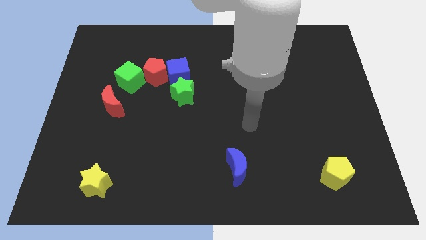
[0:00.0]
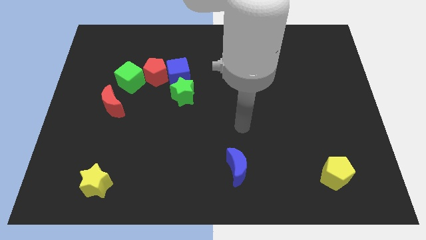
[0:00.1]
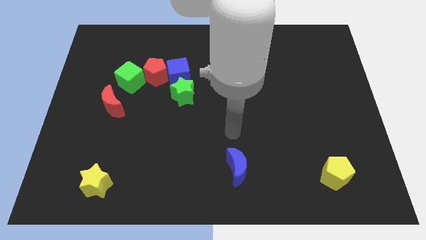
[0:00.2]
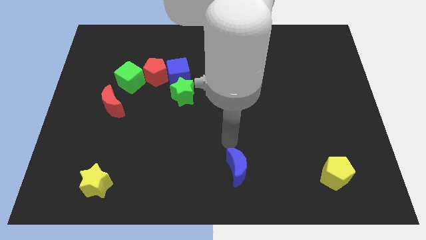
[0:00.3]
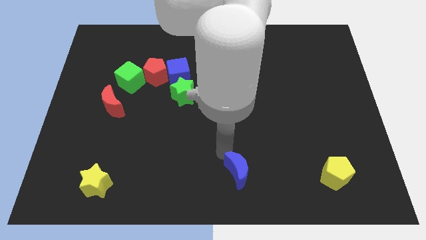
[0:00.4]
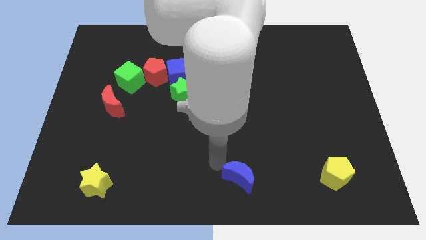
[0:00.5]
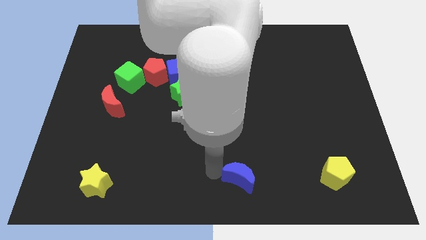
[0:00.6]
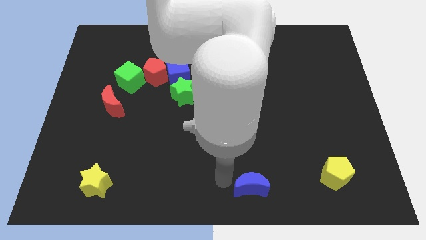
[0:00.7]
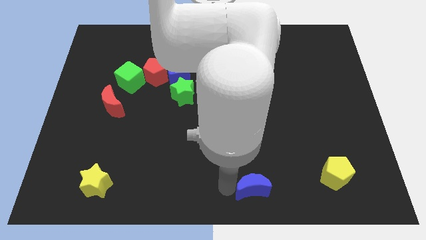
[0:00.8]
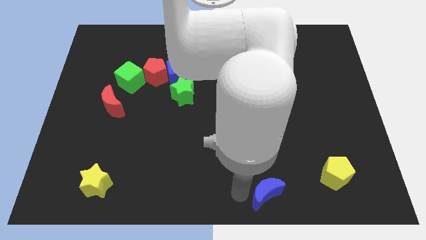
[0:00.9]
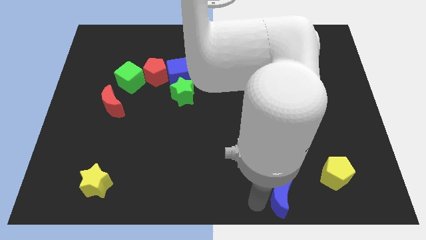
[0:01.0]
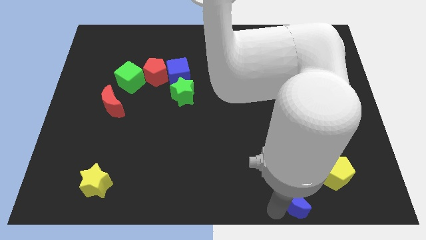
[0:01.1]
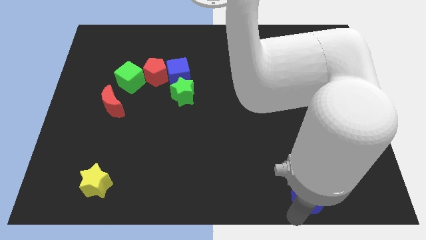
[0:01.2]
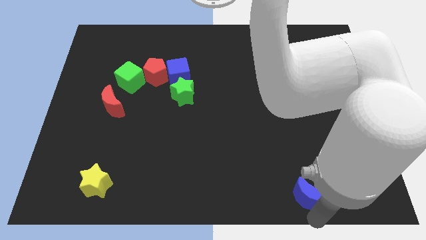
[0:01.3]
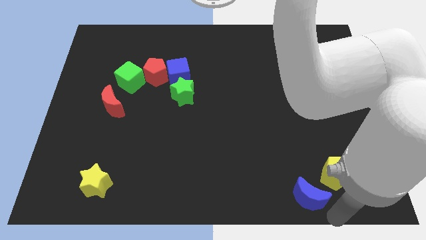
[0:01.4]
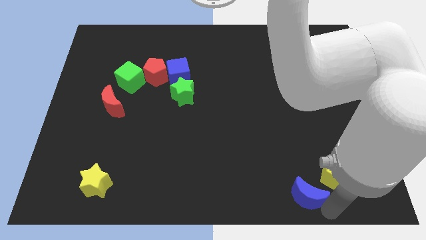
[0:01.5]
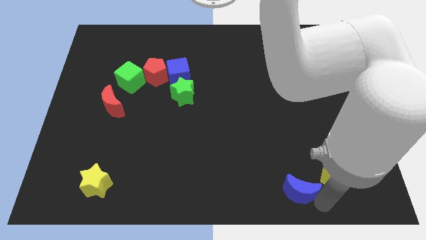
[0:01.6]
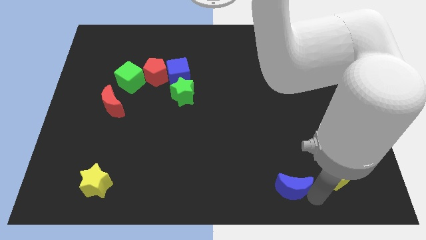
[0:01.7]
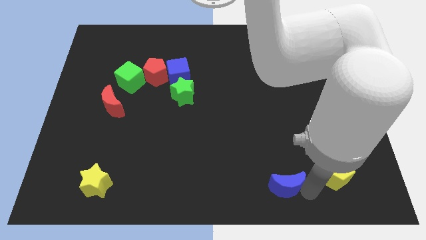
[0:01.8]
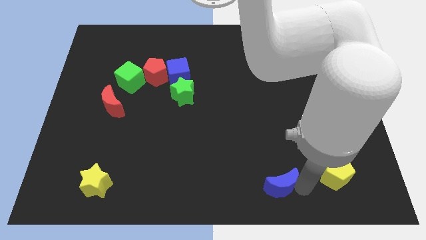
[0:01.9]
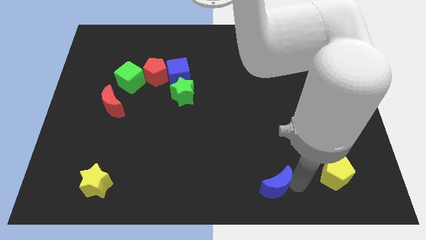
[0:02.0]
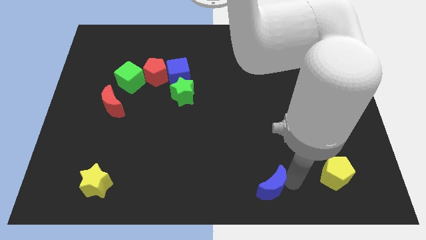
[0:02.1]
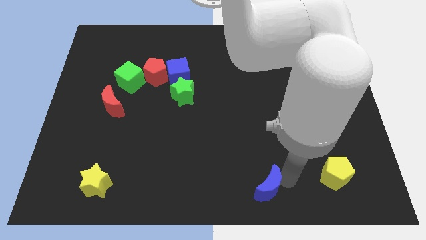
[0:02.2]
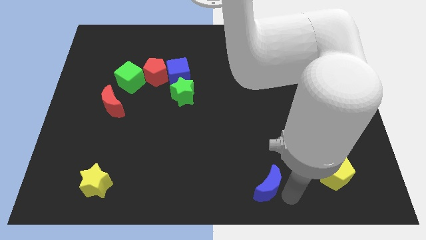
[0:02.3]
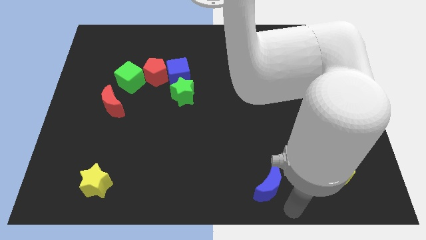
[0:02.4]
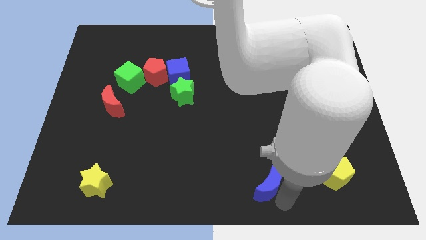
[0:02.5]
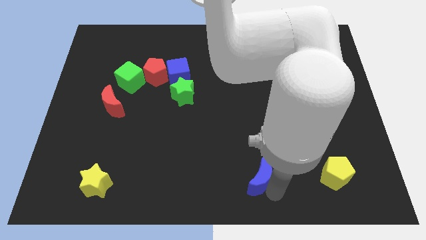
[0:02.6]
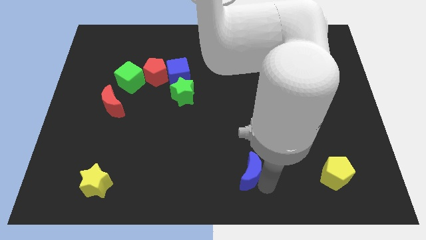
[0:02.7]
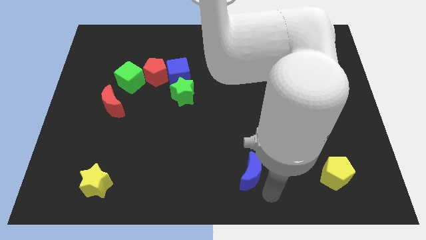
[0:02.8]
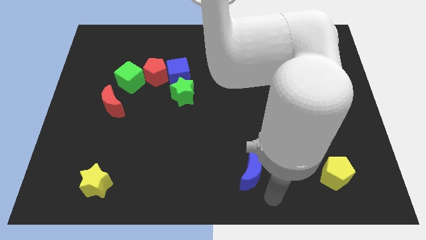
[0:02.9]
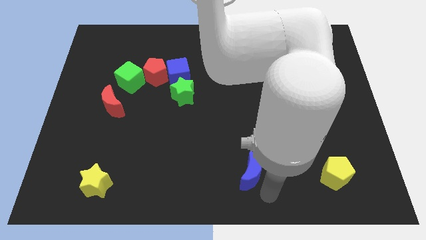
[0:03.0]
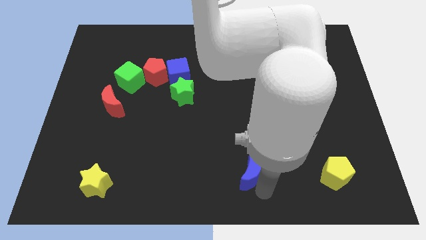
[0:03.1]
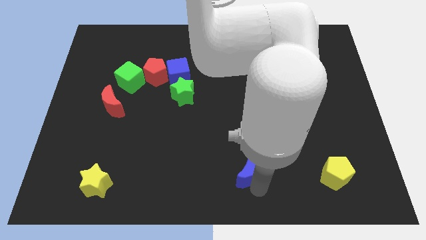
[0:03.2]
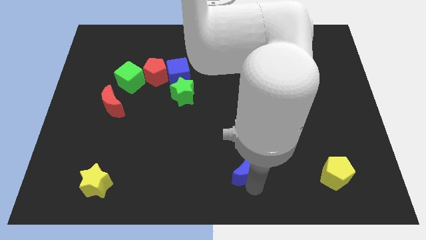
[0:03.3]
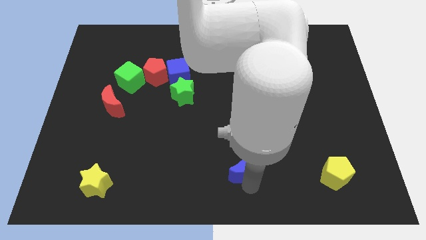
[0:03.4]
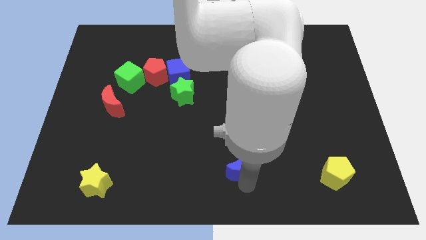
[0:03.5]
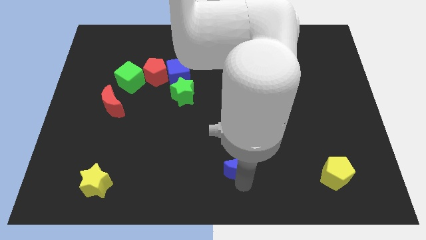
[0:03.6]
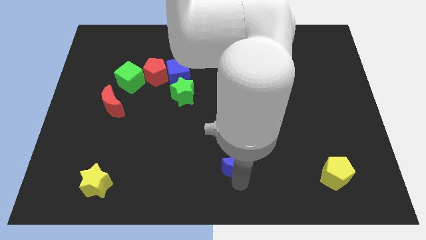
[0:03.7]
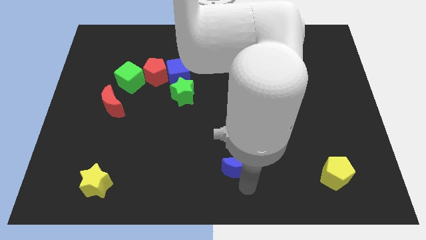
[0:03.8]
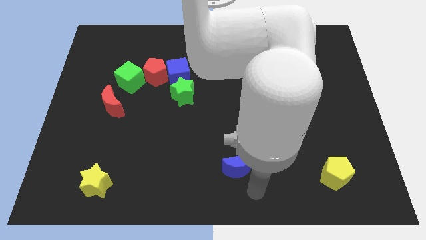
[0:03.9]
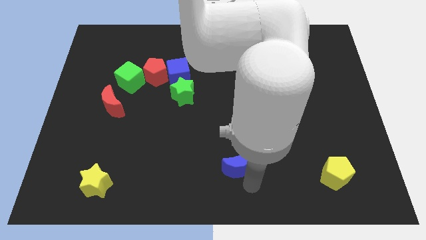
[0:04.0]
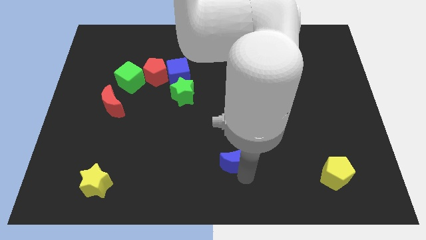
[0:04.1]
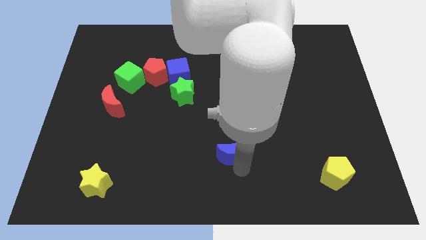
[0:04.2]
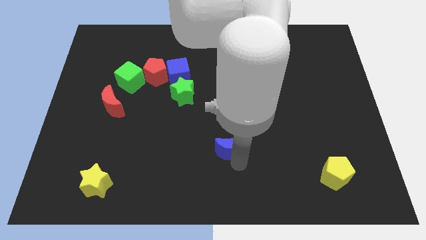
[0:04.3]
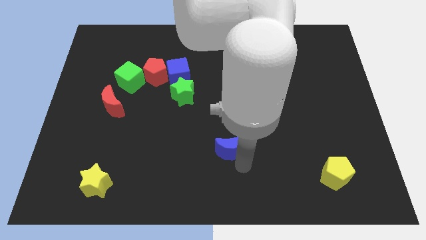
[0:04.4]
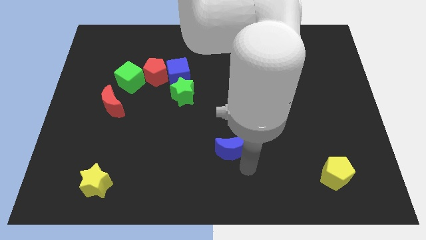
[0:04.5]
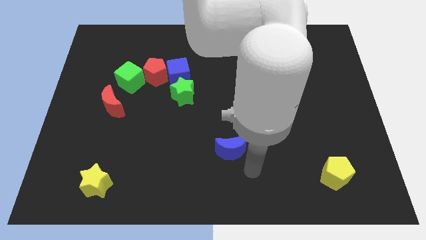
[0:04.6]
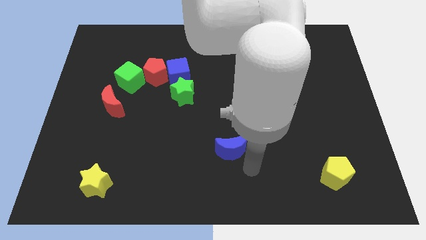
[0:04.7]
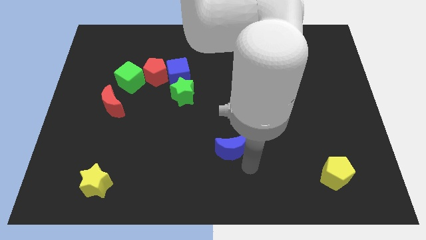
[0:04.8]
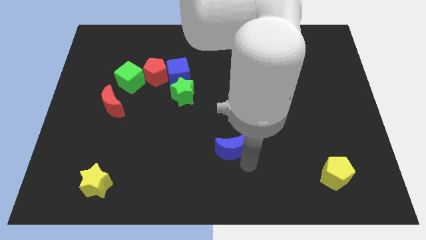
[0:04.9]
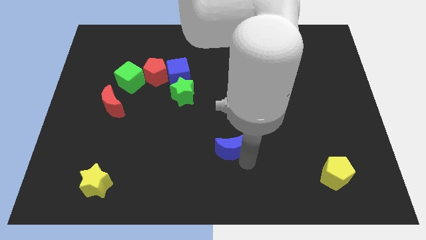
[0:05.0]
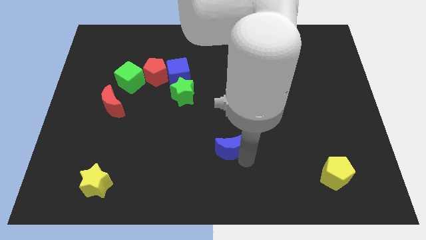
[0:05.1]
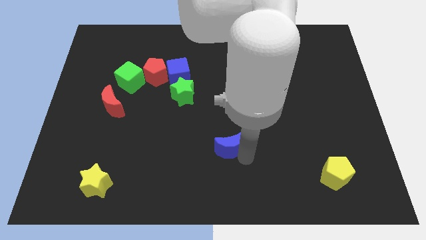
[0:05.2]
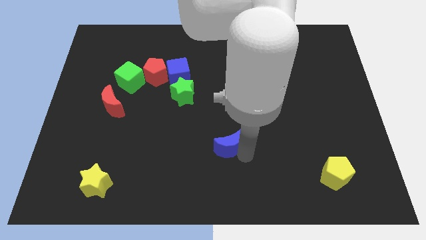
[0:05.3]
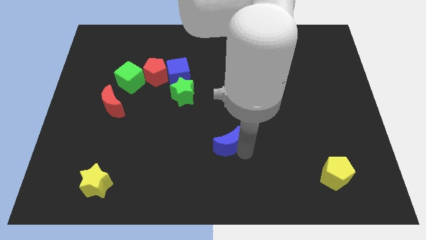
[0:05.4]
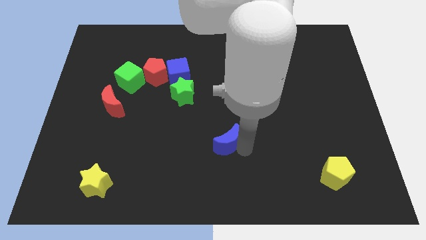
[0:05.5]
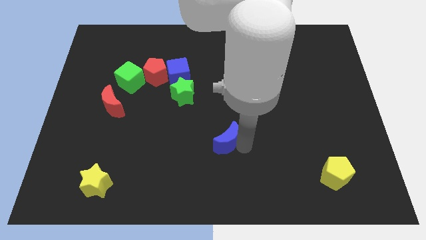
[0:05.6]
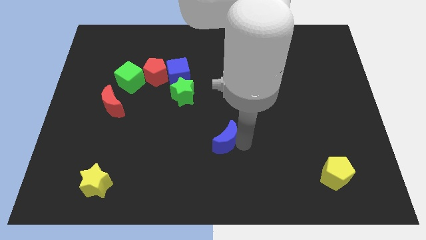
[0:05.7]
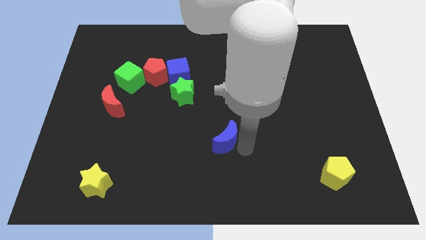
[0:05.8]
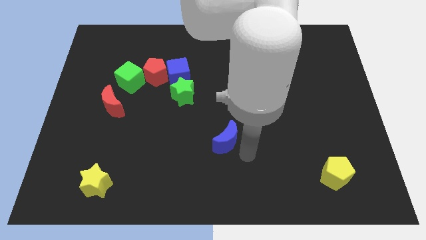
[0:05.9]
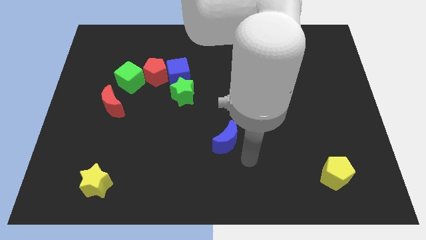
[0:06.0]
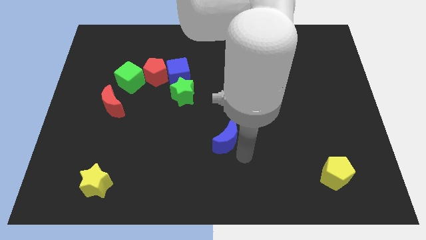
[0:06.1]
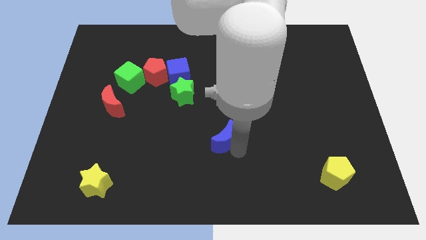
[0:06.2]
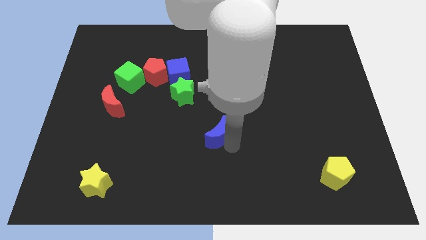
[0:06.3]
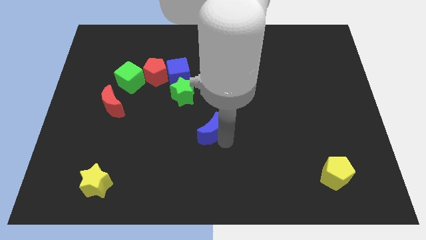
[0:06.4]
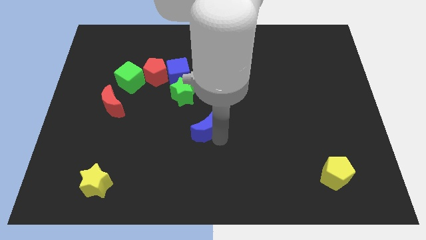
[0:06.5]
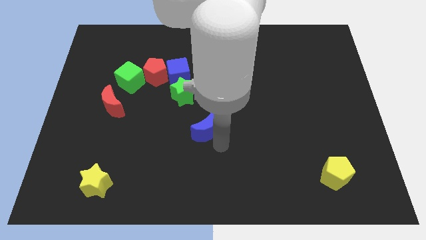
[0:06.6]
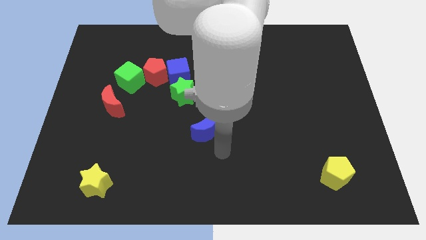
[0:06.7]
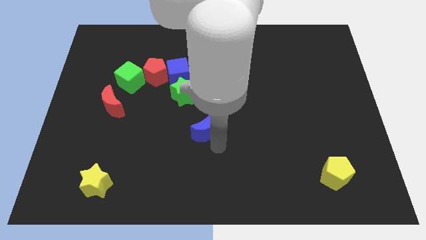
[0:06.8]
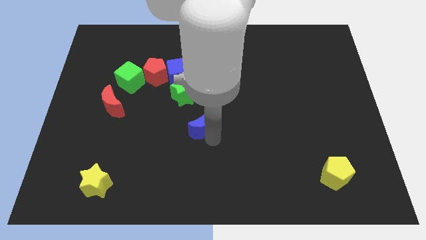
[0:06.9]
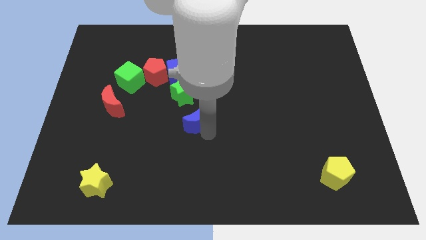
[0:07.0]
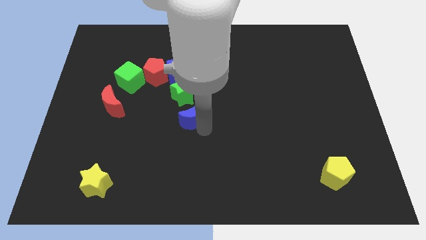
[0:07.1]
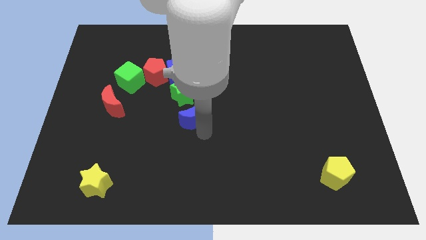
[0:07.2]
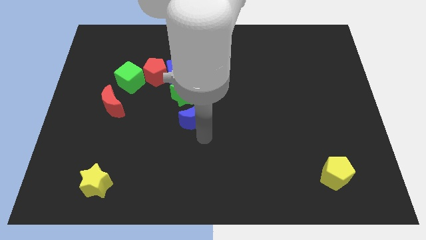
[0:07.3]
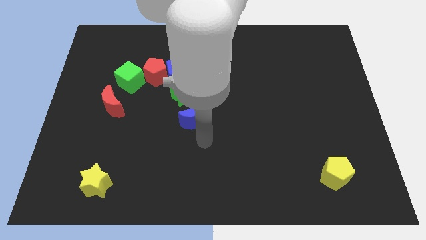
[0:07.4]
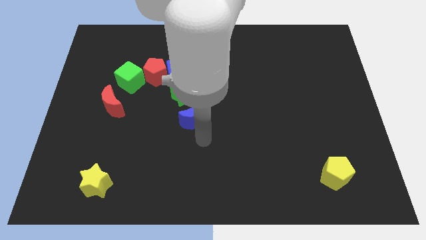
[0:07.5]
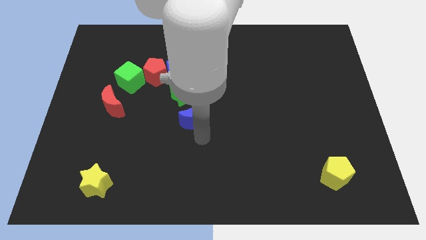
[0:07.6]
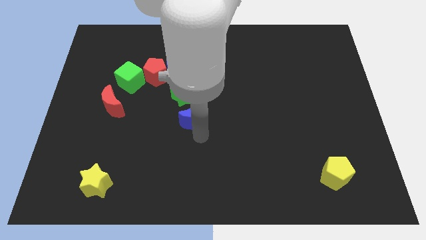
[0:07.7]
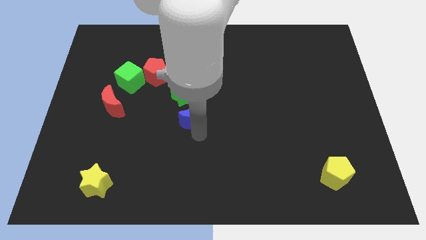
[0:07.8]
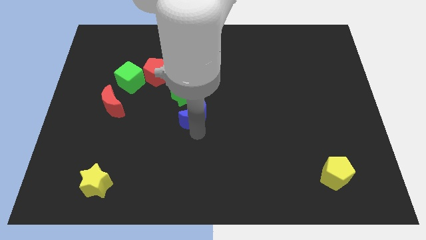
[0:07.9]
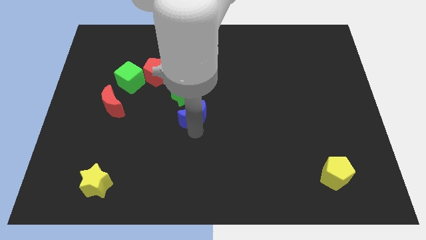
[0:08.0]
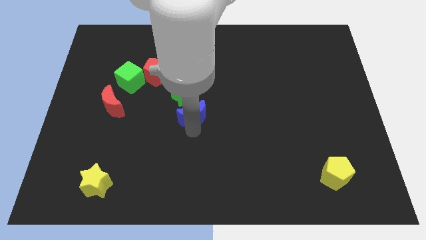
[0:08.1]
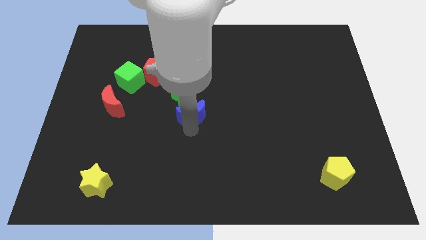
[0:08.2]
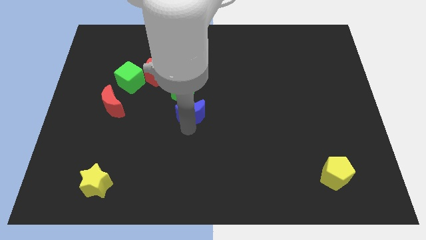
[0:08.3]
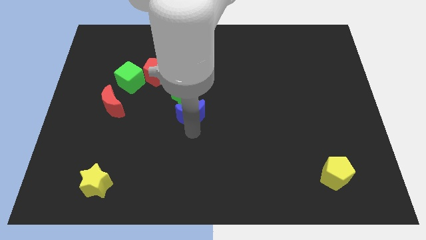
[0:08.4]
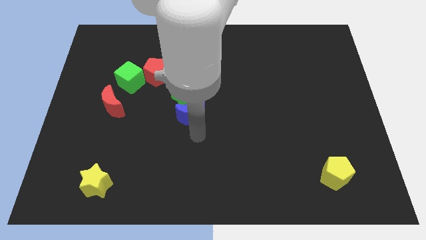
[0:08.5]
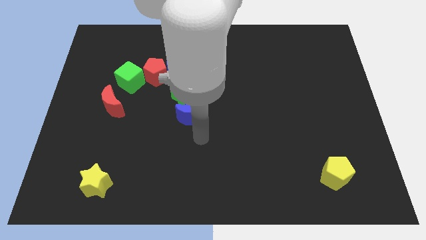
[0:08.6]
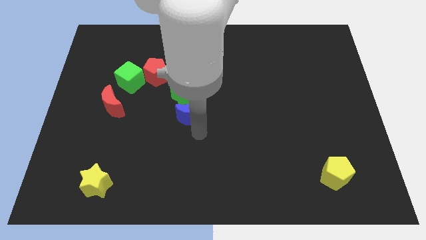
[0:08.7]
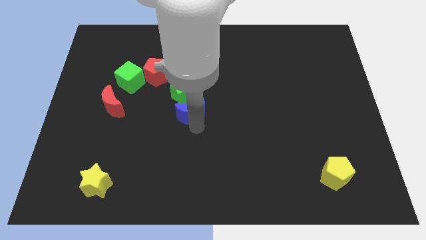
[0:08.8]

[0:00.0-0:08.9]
slide the blue moon towards the green star
